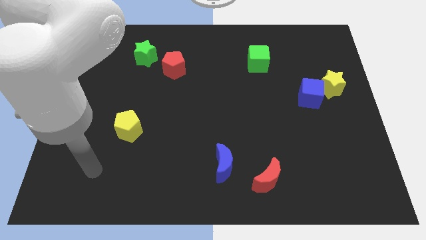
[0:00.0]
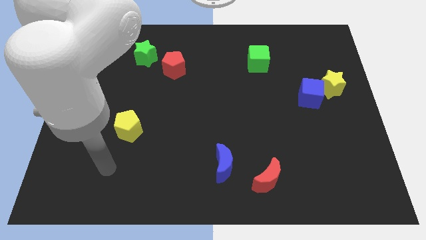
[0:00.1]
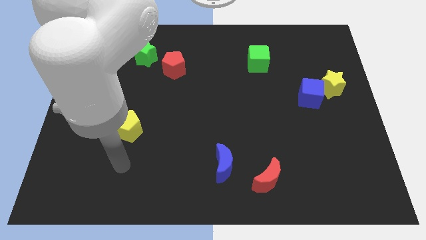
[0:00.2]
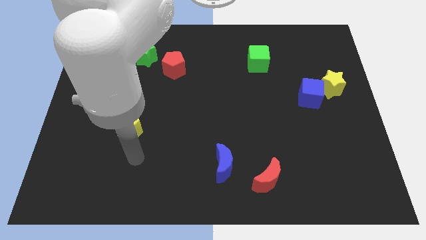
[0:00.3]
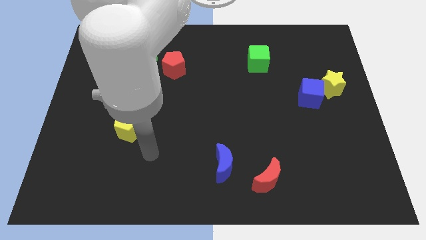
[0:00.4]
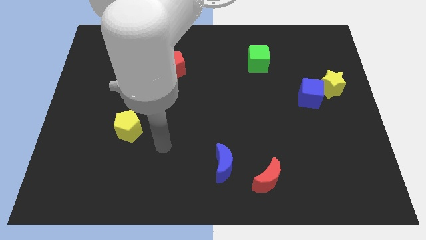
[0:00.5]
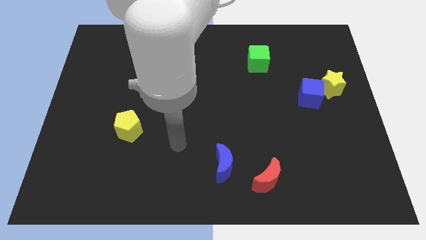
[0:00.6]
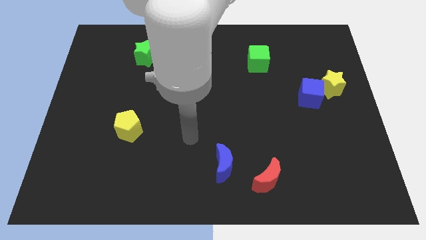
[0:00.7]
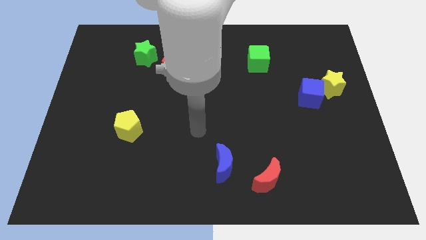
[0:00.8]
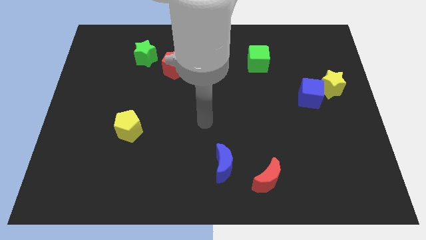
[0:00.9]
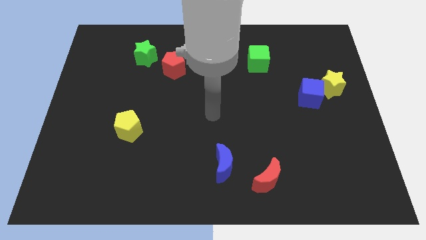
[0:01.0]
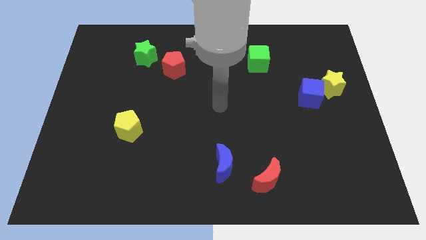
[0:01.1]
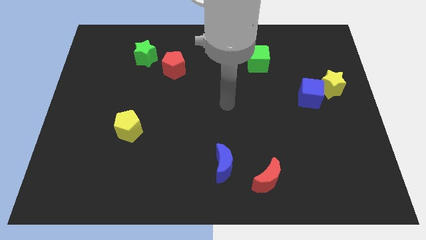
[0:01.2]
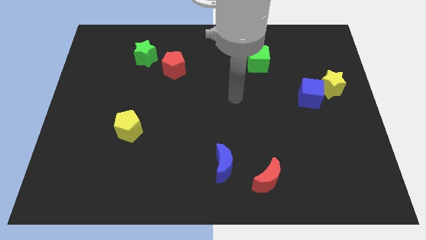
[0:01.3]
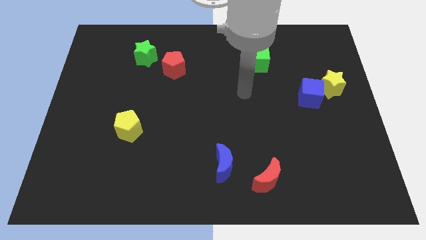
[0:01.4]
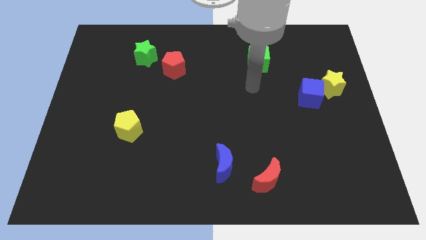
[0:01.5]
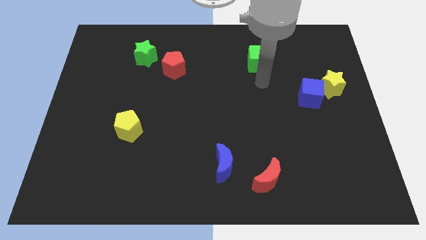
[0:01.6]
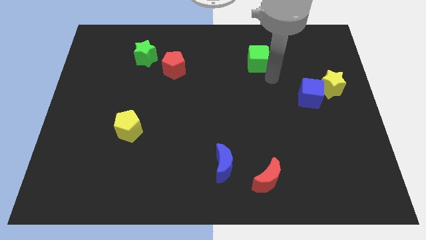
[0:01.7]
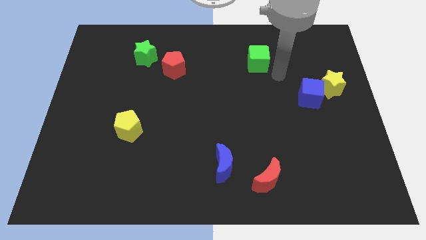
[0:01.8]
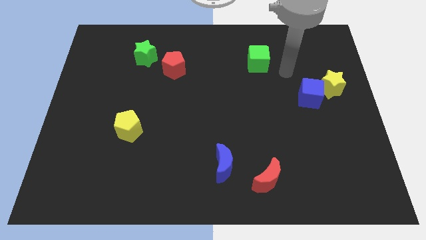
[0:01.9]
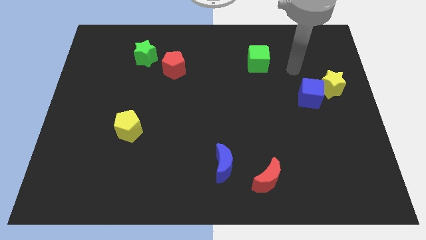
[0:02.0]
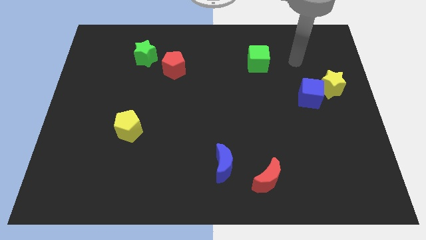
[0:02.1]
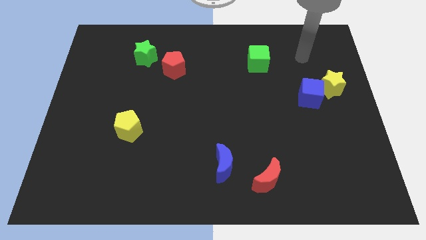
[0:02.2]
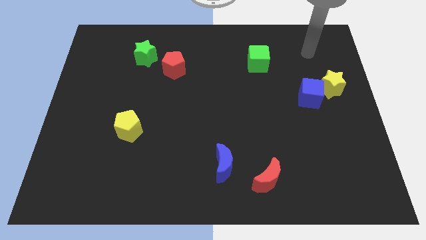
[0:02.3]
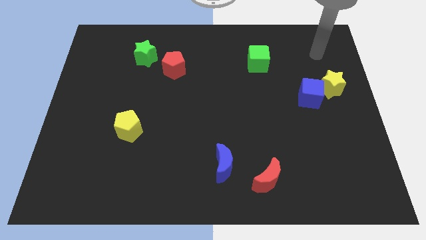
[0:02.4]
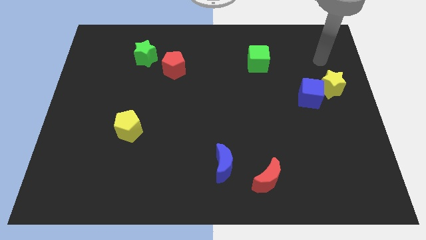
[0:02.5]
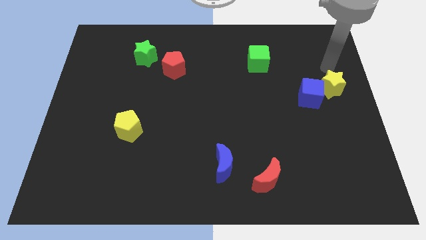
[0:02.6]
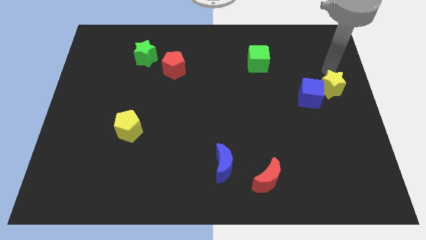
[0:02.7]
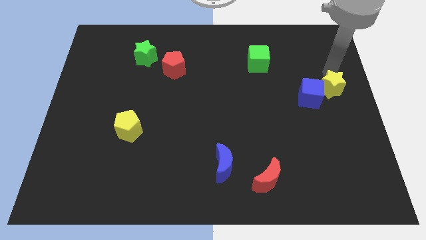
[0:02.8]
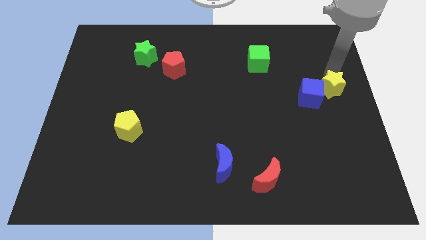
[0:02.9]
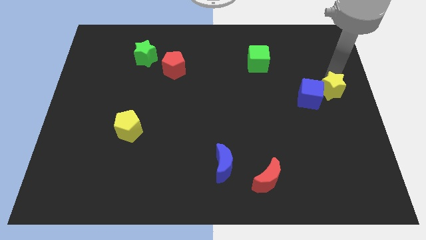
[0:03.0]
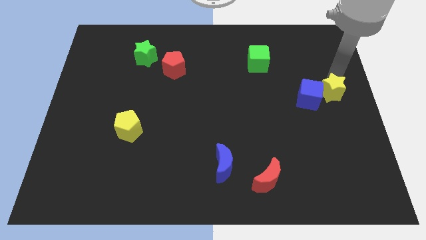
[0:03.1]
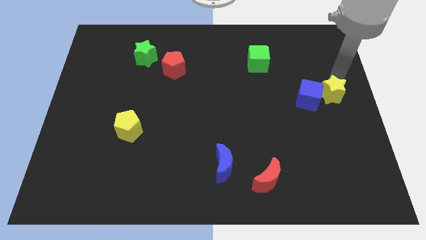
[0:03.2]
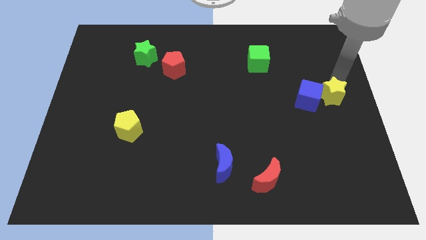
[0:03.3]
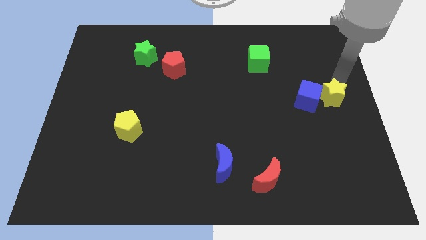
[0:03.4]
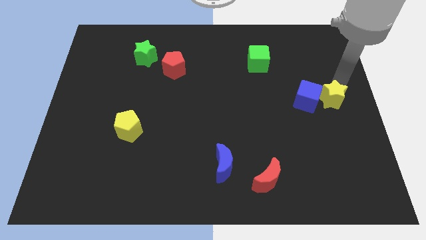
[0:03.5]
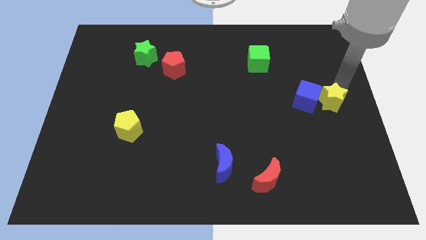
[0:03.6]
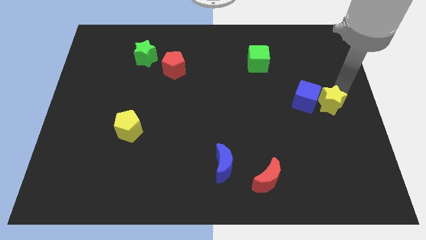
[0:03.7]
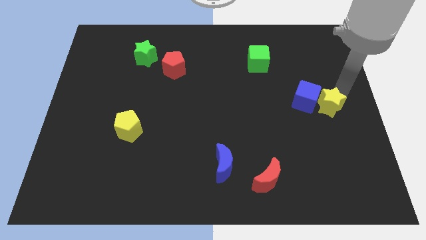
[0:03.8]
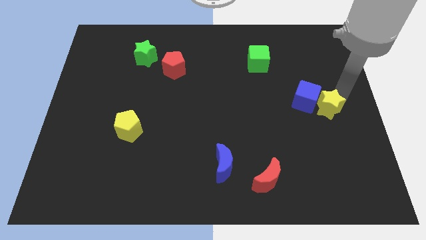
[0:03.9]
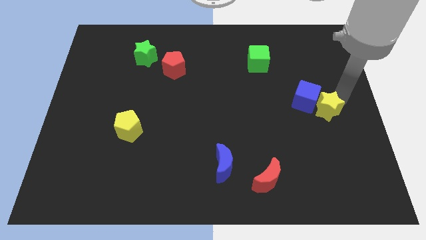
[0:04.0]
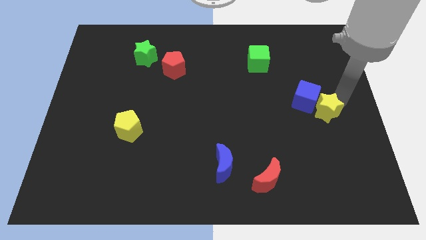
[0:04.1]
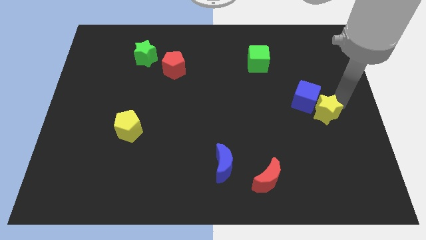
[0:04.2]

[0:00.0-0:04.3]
slide the yellow star a little bit down and then to the left

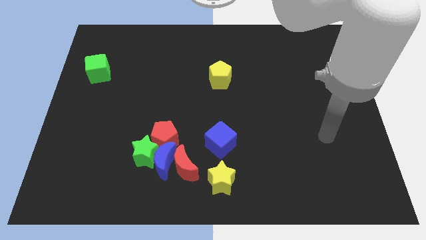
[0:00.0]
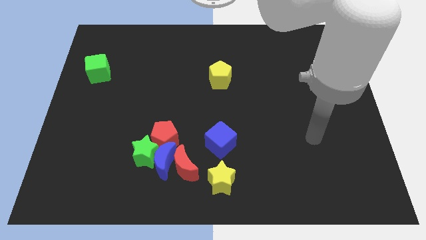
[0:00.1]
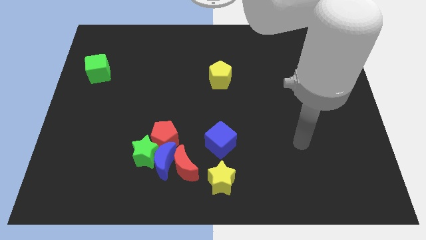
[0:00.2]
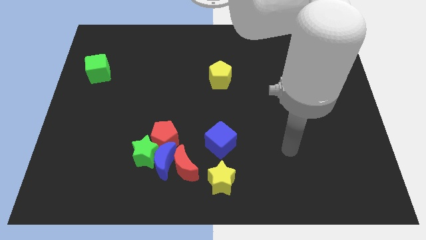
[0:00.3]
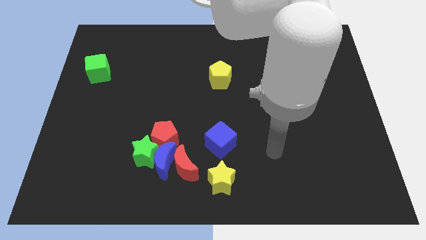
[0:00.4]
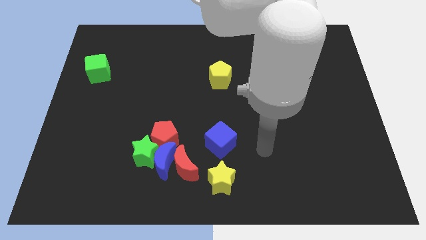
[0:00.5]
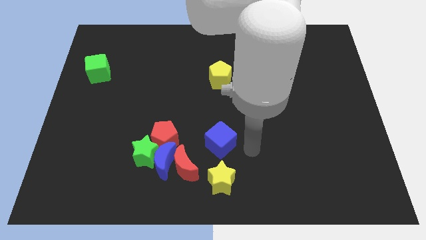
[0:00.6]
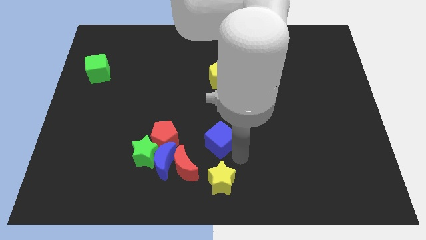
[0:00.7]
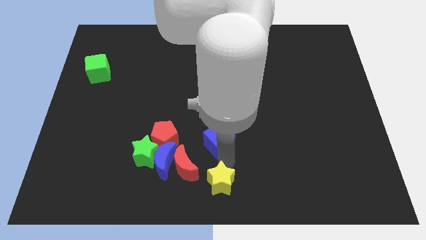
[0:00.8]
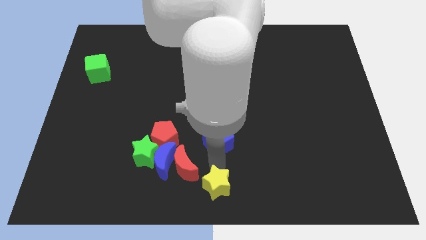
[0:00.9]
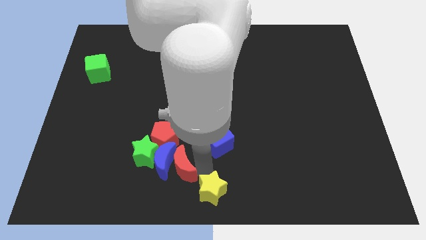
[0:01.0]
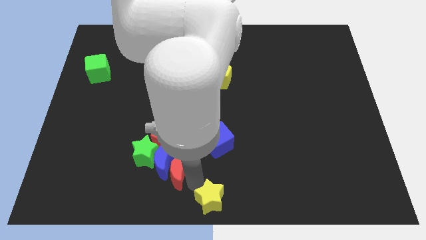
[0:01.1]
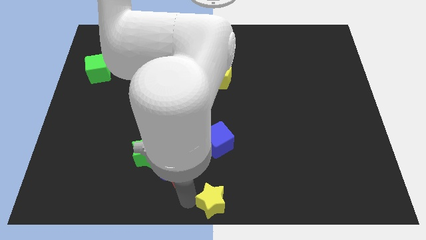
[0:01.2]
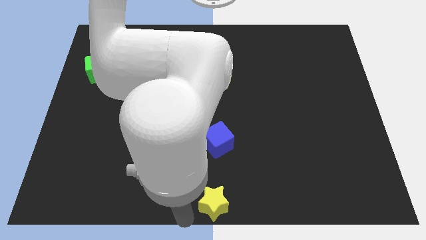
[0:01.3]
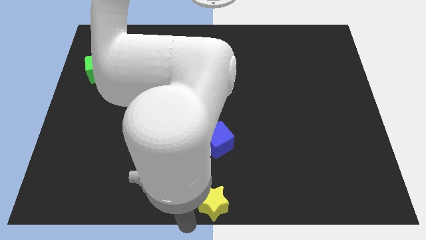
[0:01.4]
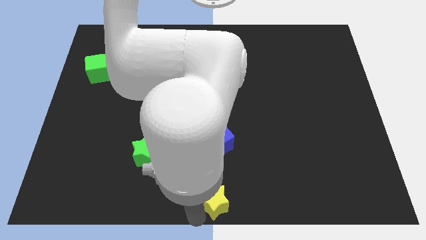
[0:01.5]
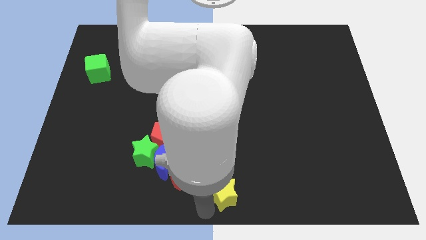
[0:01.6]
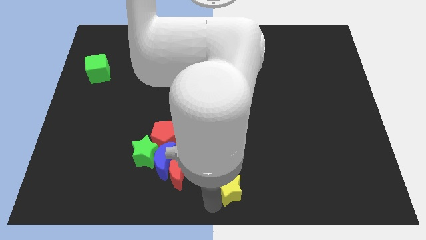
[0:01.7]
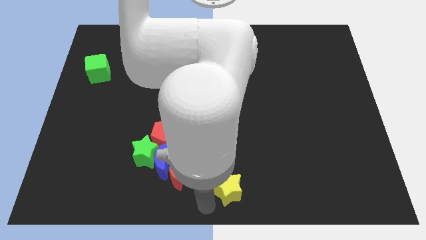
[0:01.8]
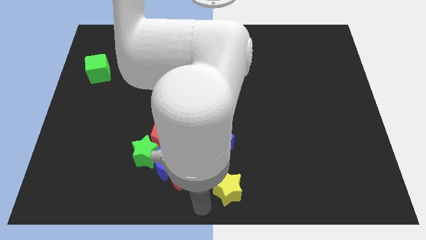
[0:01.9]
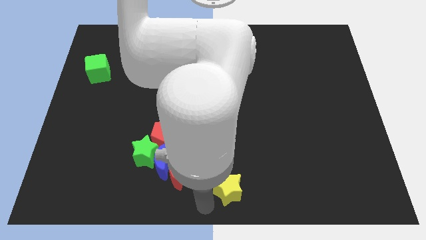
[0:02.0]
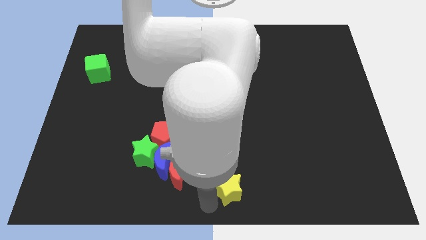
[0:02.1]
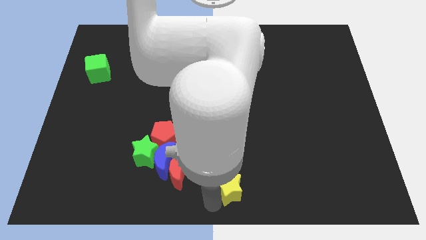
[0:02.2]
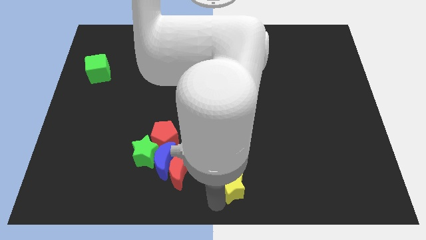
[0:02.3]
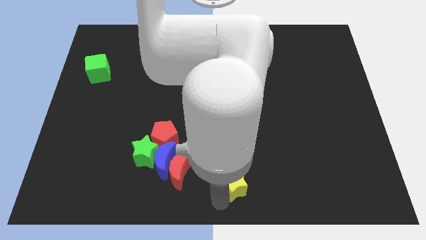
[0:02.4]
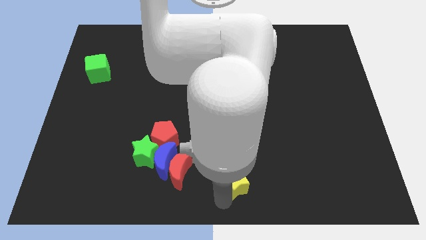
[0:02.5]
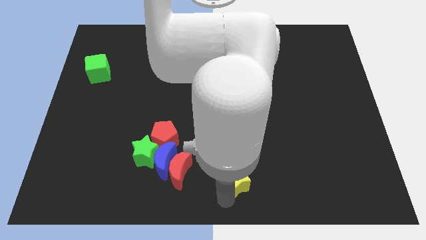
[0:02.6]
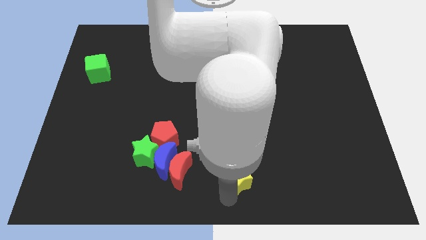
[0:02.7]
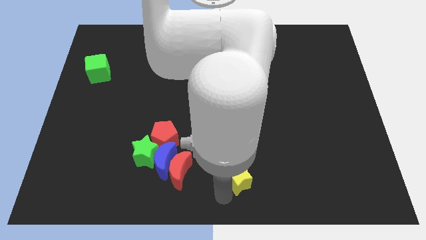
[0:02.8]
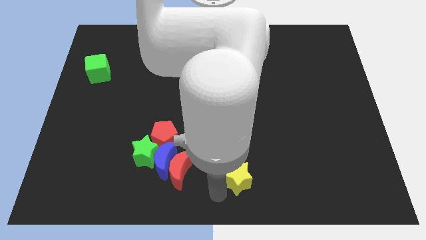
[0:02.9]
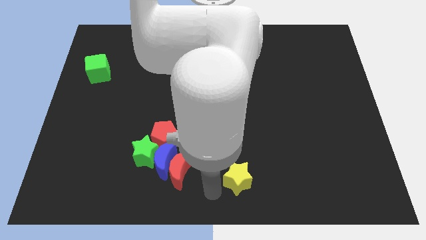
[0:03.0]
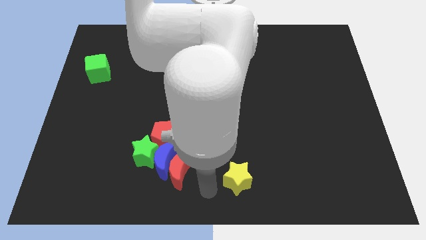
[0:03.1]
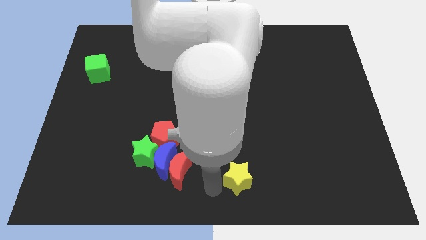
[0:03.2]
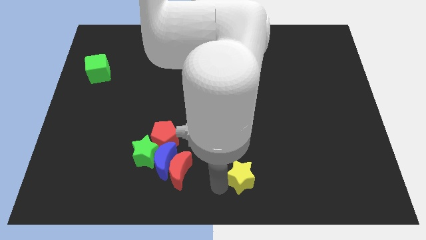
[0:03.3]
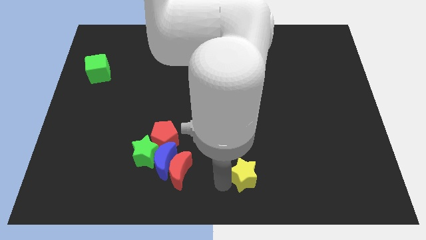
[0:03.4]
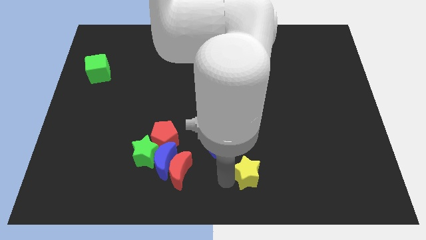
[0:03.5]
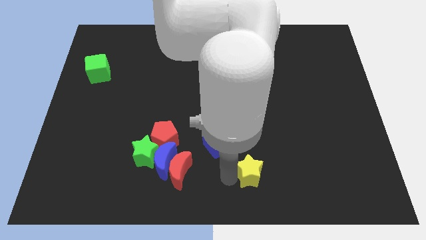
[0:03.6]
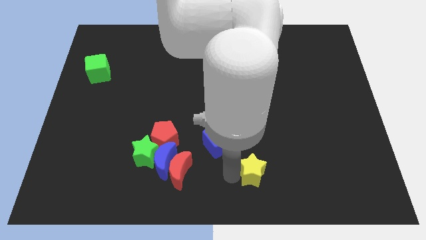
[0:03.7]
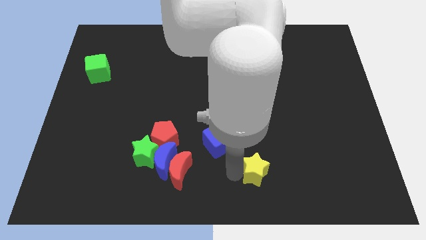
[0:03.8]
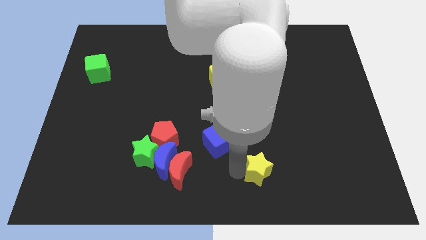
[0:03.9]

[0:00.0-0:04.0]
push the yellow star a bit to the right

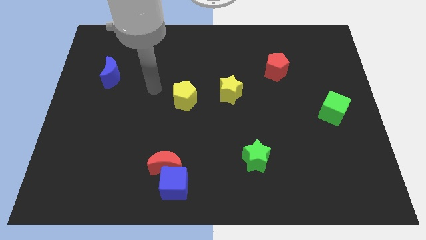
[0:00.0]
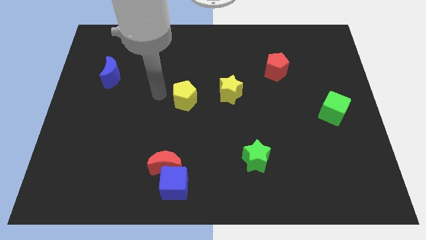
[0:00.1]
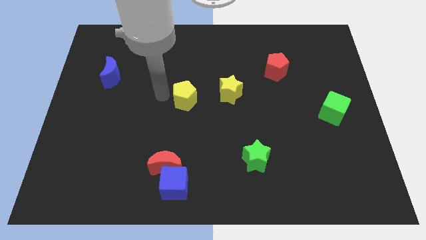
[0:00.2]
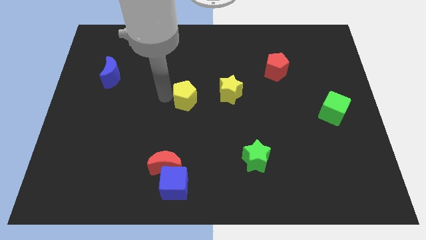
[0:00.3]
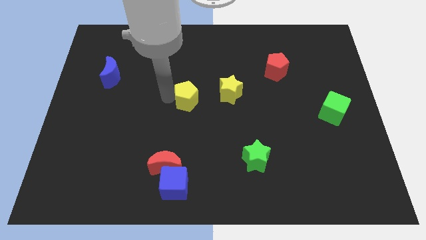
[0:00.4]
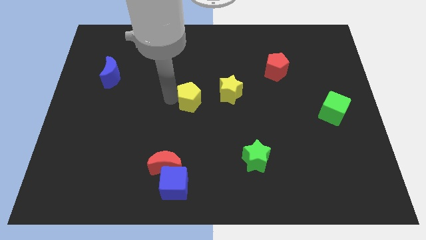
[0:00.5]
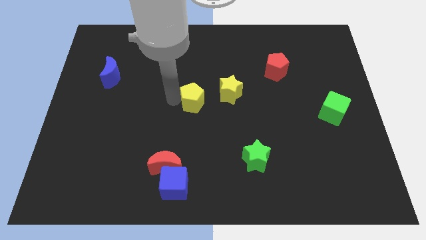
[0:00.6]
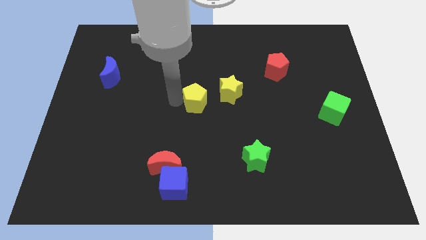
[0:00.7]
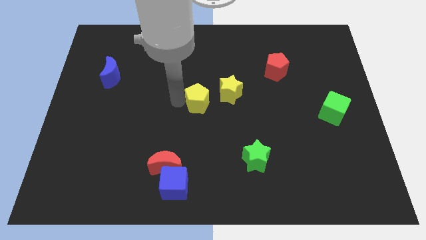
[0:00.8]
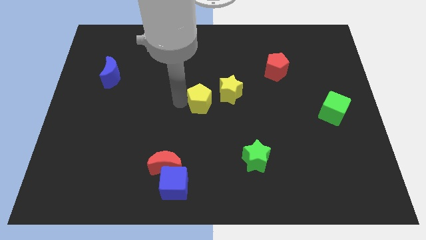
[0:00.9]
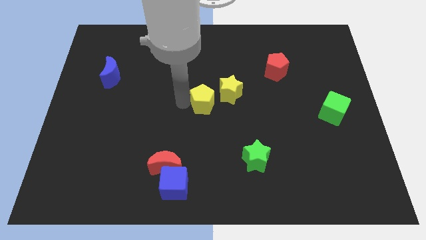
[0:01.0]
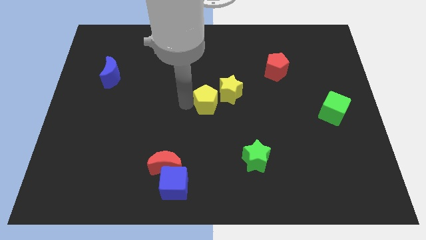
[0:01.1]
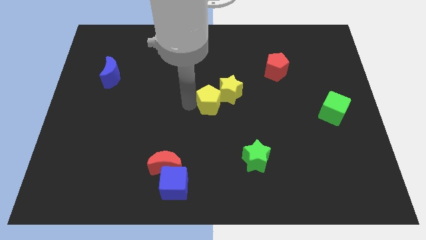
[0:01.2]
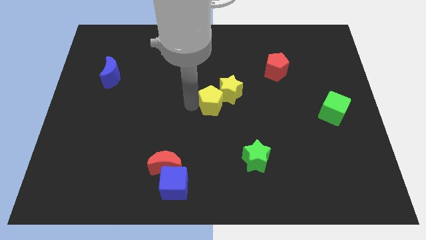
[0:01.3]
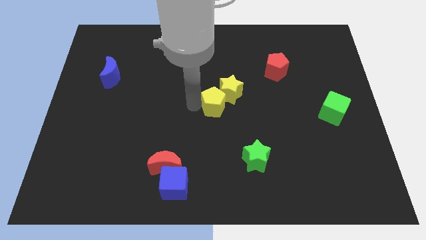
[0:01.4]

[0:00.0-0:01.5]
push the yellow pentagon to the right somewhat
